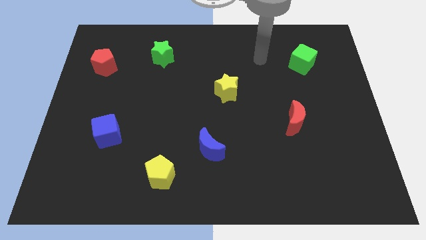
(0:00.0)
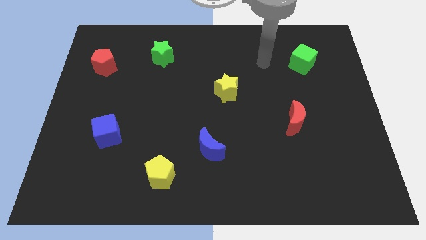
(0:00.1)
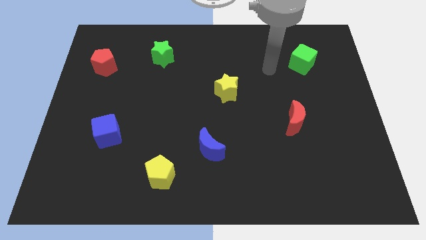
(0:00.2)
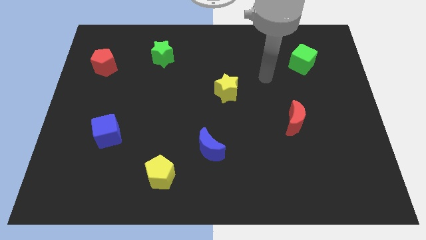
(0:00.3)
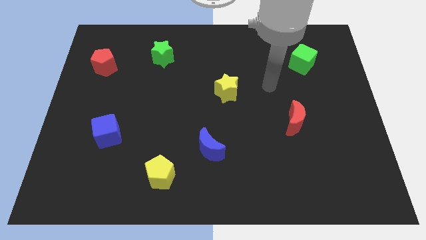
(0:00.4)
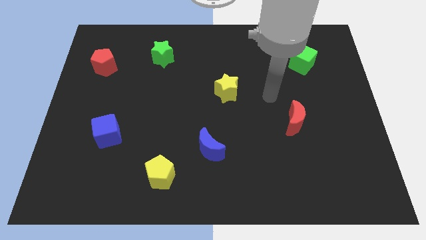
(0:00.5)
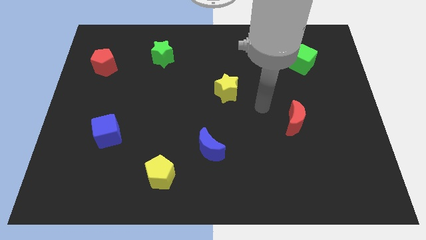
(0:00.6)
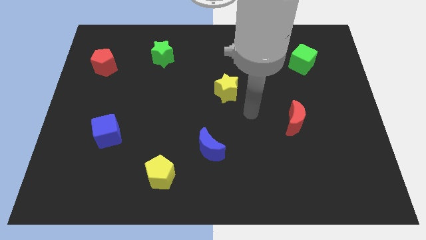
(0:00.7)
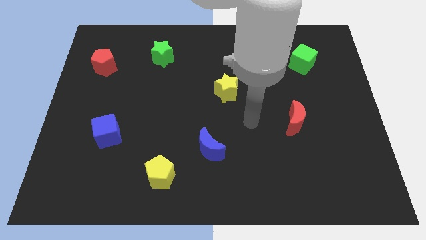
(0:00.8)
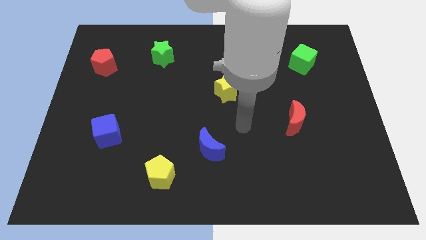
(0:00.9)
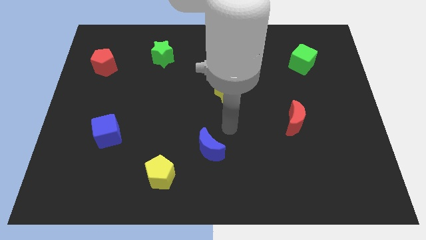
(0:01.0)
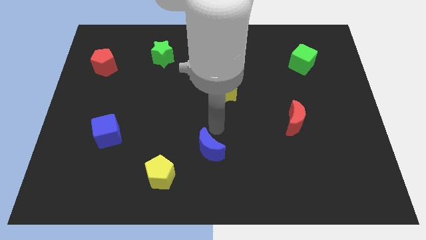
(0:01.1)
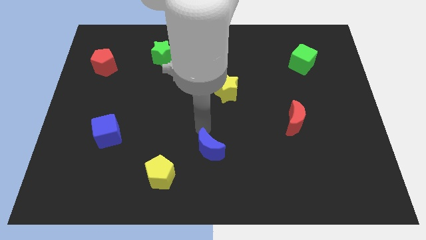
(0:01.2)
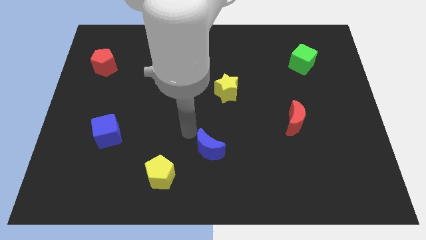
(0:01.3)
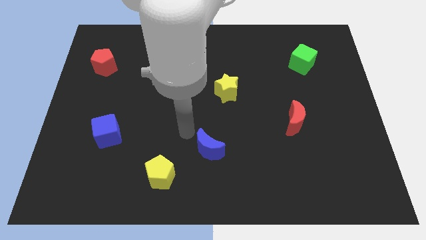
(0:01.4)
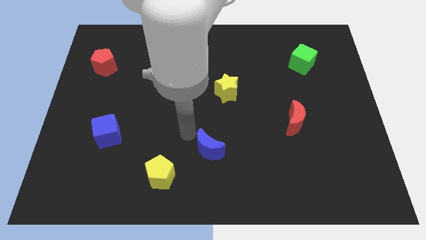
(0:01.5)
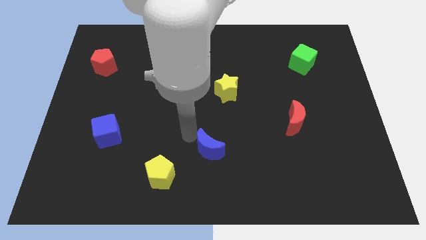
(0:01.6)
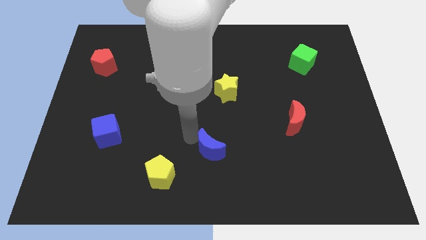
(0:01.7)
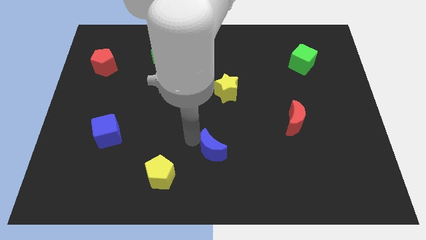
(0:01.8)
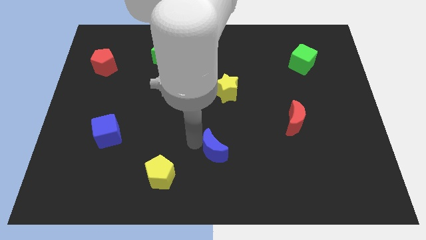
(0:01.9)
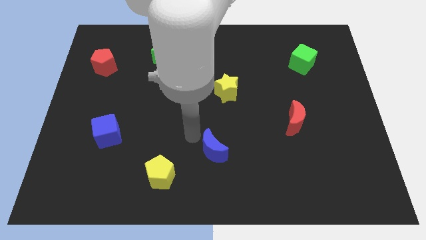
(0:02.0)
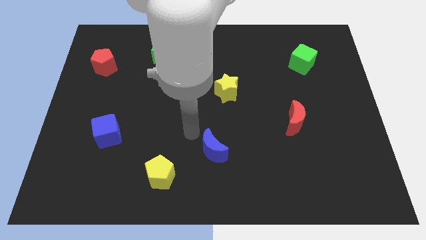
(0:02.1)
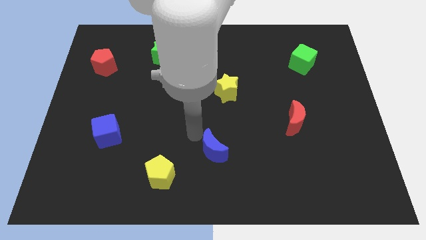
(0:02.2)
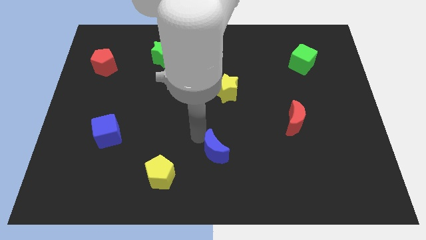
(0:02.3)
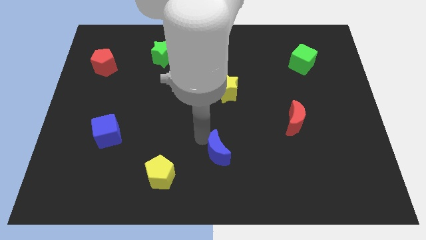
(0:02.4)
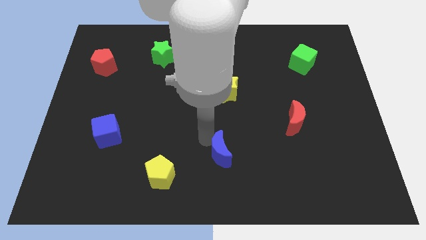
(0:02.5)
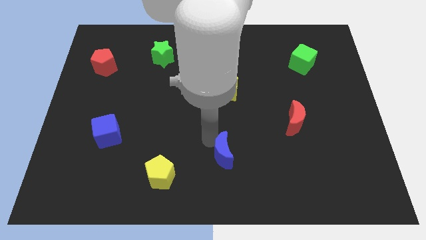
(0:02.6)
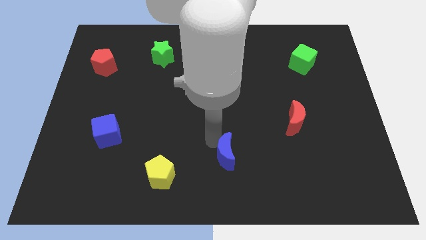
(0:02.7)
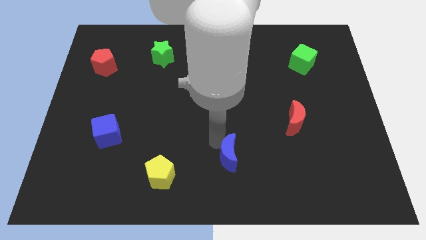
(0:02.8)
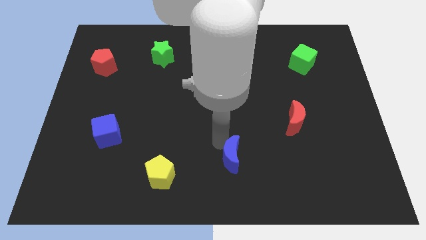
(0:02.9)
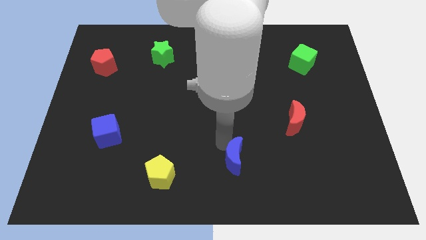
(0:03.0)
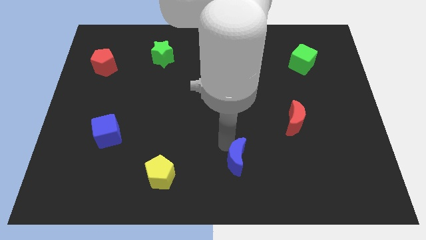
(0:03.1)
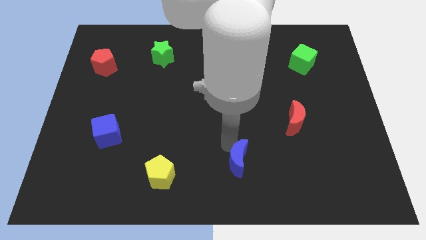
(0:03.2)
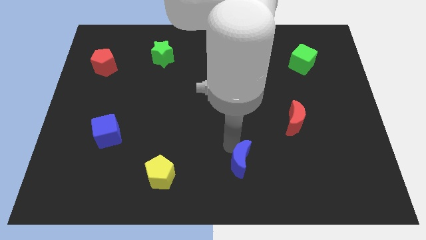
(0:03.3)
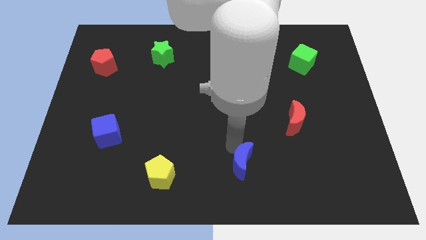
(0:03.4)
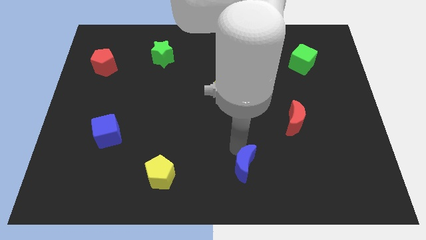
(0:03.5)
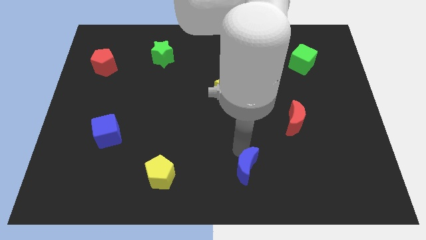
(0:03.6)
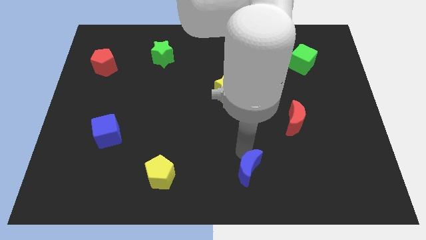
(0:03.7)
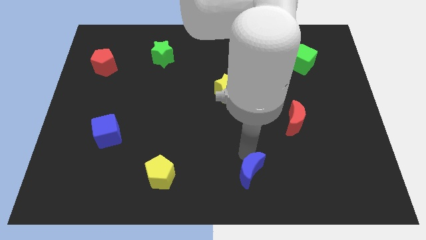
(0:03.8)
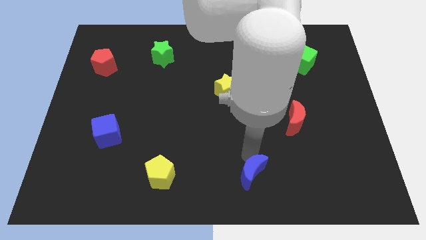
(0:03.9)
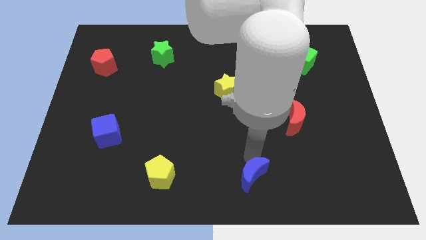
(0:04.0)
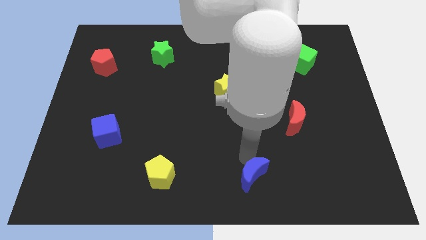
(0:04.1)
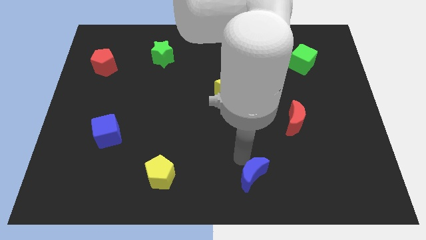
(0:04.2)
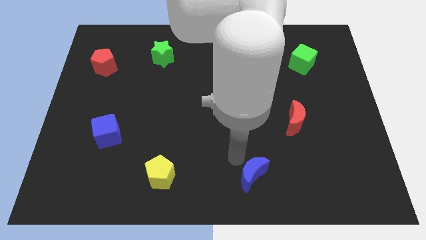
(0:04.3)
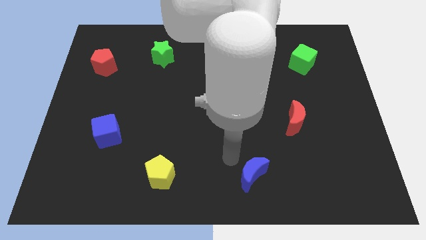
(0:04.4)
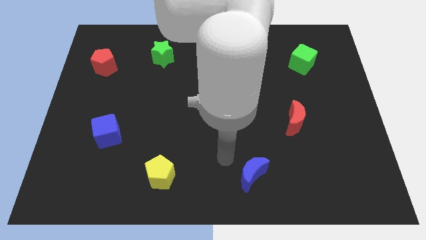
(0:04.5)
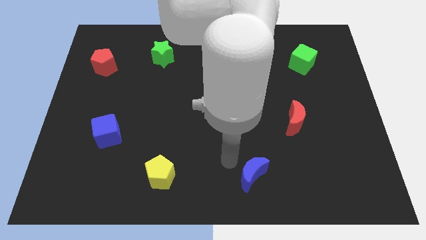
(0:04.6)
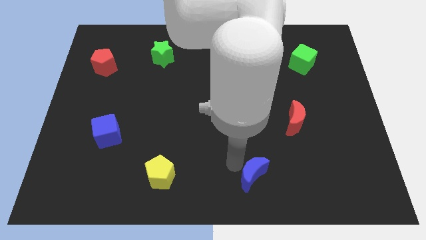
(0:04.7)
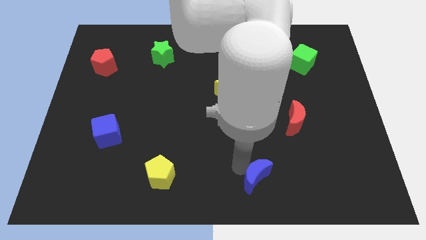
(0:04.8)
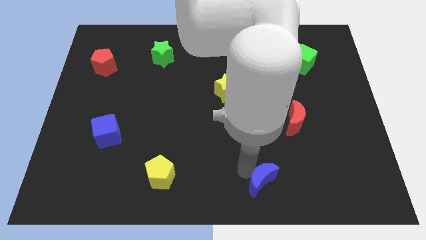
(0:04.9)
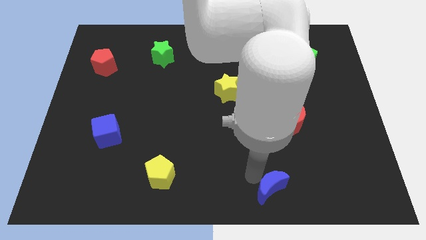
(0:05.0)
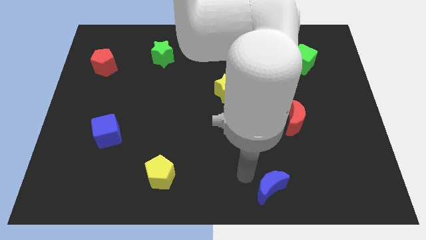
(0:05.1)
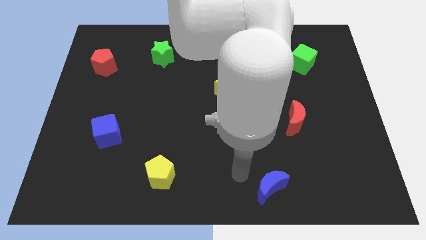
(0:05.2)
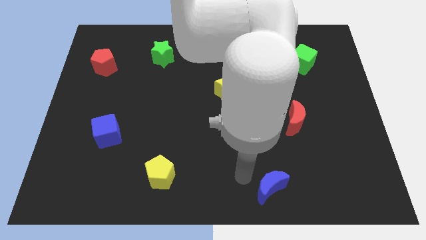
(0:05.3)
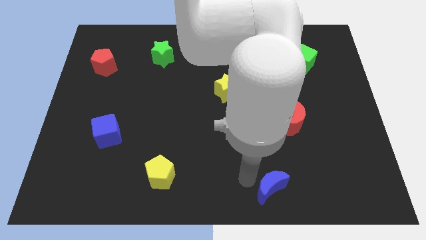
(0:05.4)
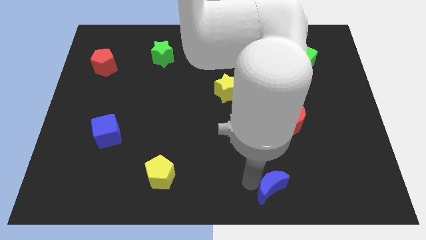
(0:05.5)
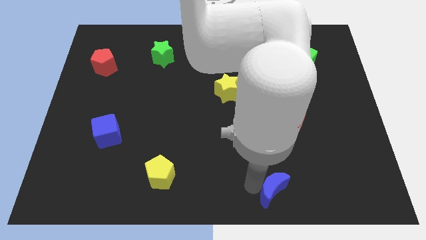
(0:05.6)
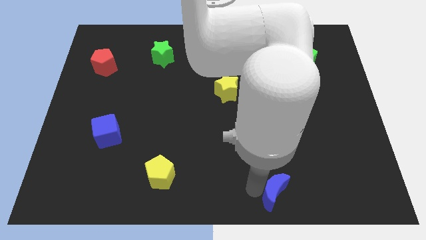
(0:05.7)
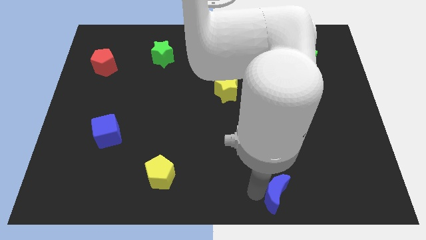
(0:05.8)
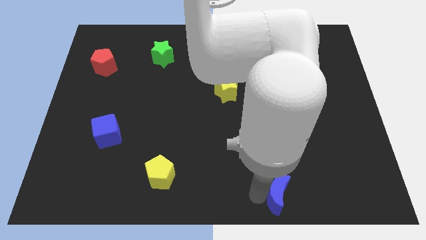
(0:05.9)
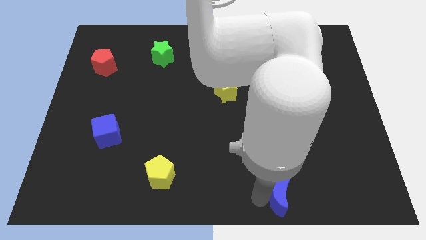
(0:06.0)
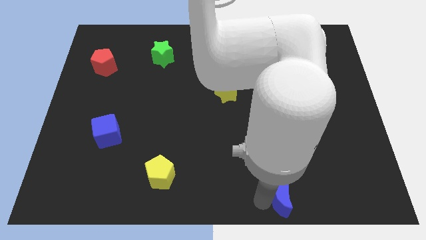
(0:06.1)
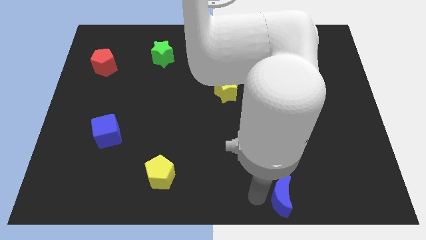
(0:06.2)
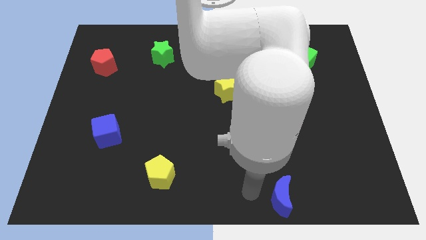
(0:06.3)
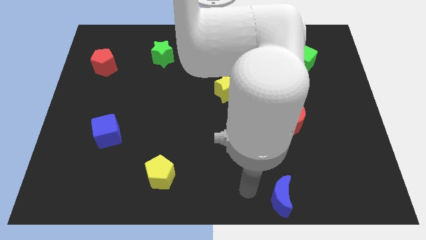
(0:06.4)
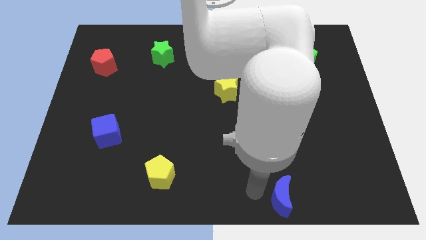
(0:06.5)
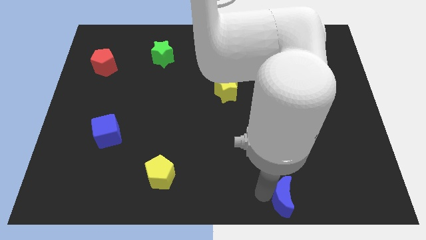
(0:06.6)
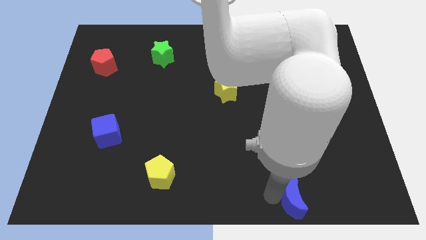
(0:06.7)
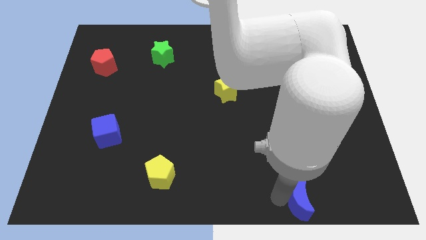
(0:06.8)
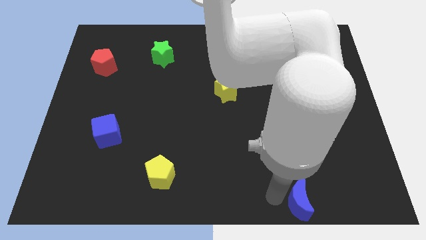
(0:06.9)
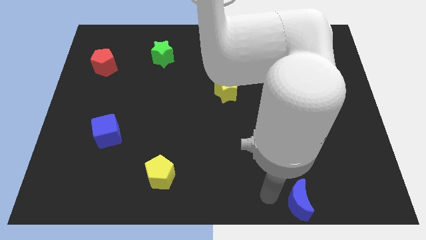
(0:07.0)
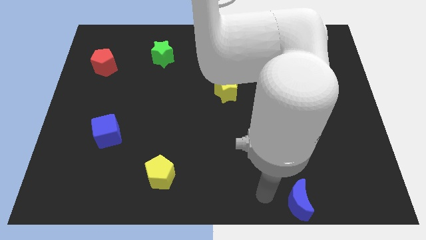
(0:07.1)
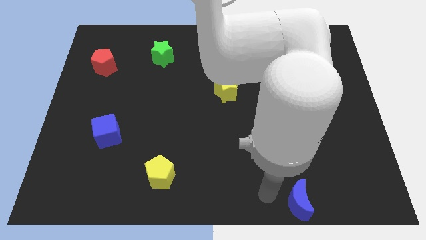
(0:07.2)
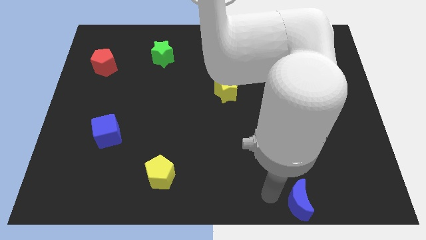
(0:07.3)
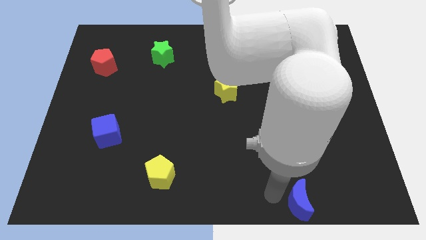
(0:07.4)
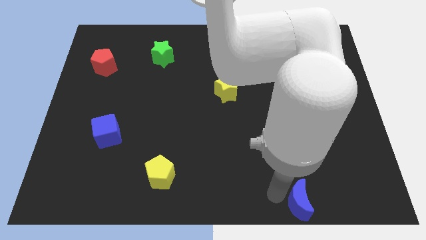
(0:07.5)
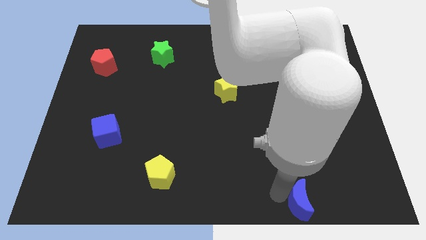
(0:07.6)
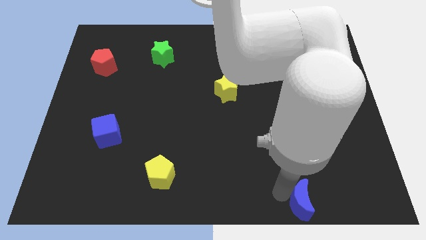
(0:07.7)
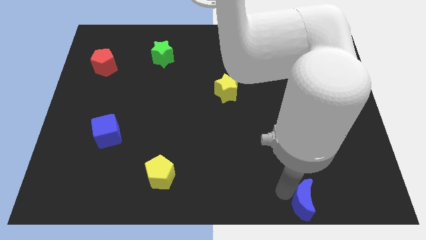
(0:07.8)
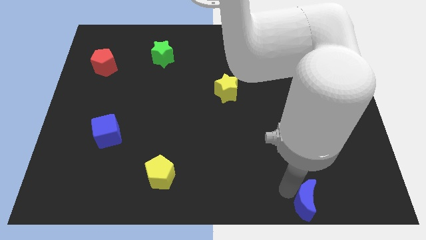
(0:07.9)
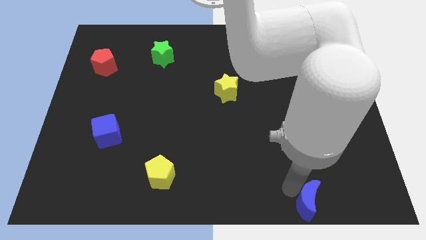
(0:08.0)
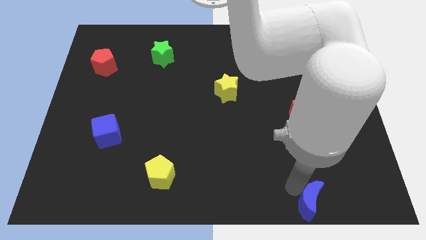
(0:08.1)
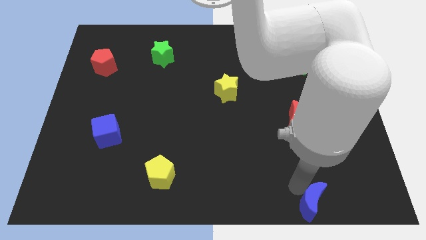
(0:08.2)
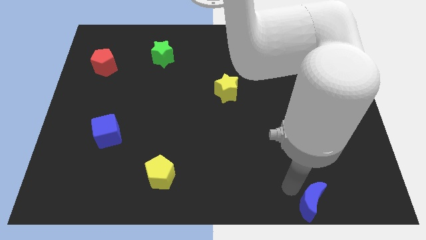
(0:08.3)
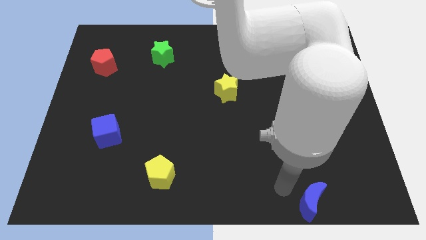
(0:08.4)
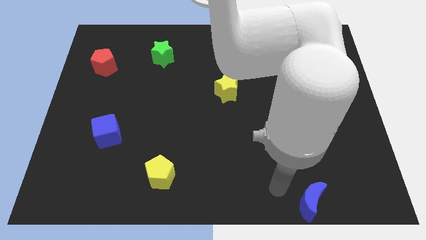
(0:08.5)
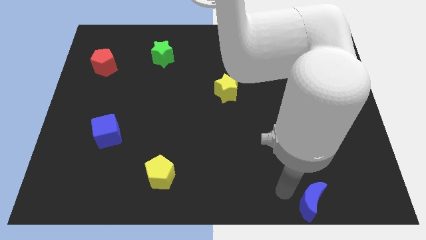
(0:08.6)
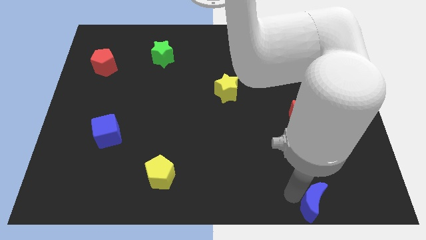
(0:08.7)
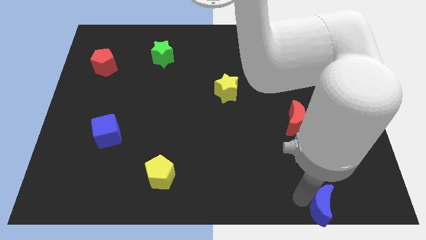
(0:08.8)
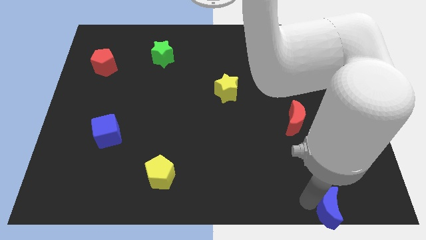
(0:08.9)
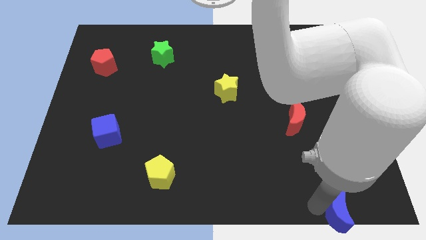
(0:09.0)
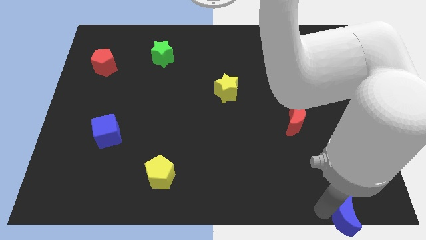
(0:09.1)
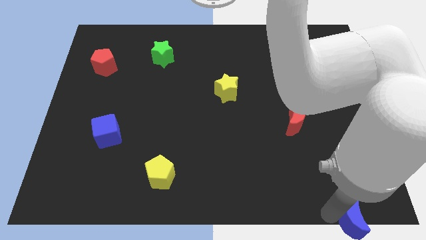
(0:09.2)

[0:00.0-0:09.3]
move the blue moon to the lower right corner
